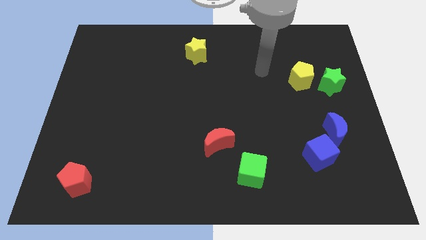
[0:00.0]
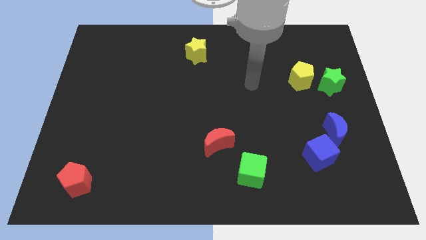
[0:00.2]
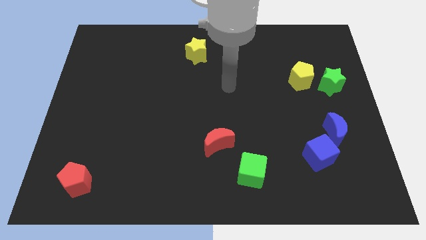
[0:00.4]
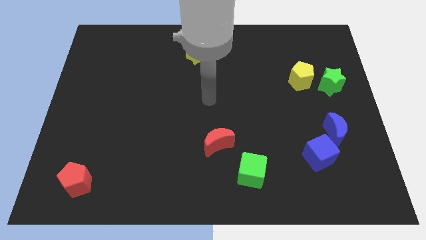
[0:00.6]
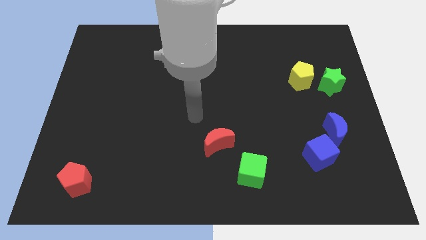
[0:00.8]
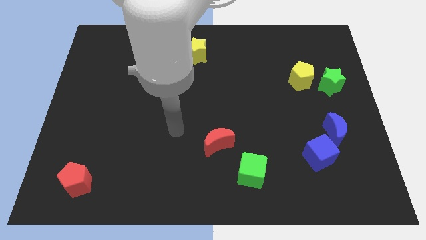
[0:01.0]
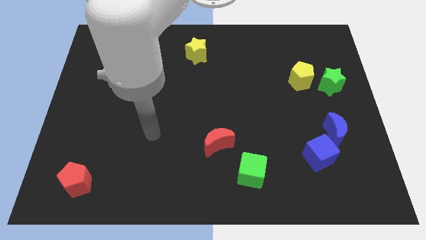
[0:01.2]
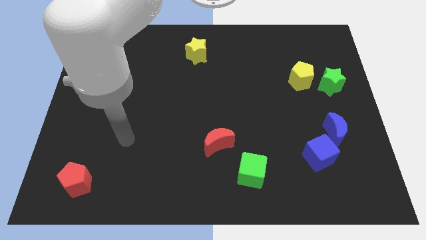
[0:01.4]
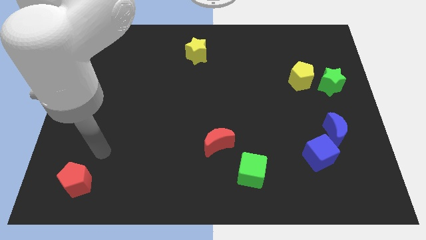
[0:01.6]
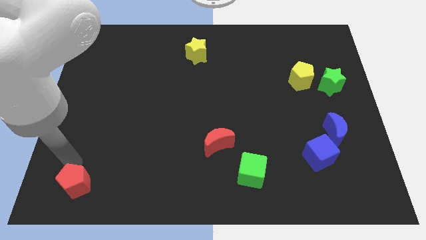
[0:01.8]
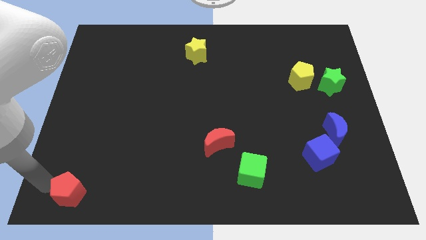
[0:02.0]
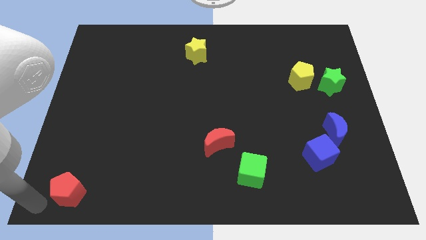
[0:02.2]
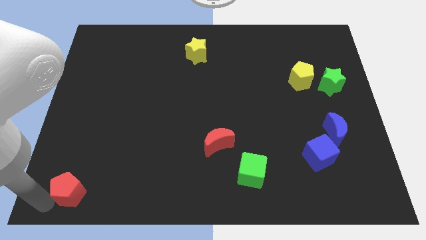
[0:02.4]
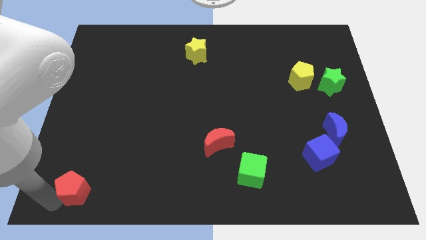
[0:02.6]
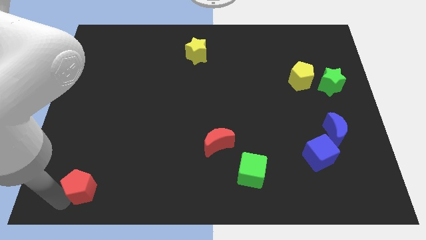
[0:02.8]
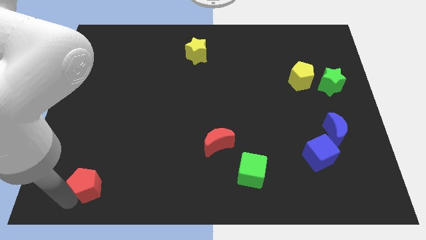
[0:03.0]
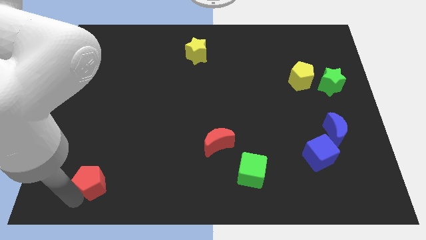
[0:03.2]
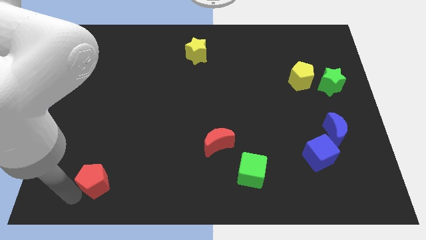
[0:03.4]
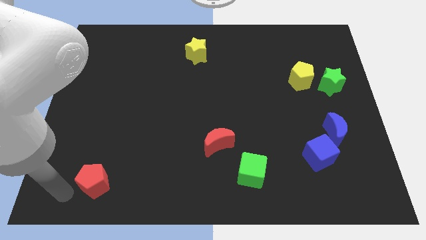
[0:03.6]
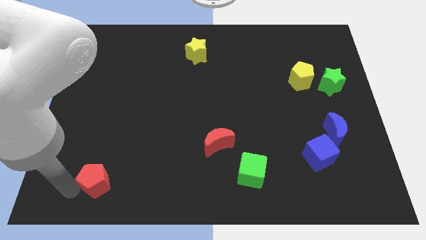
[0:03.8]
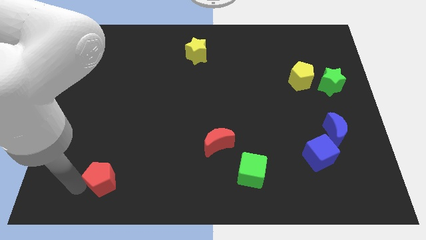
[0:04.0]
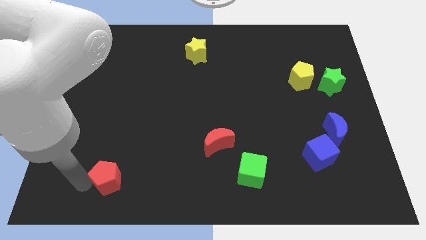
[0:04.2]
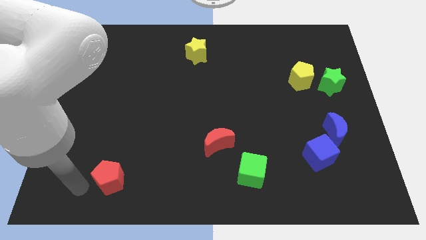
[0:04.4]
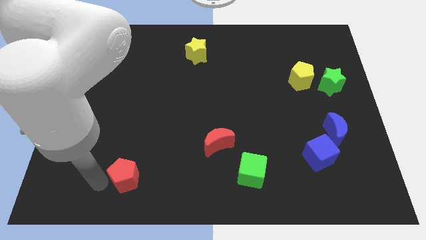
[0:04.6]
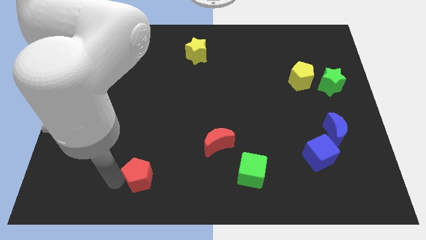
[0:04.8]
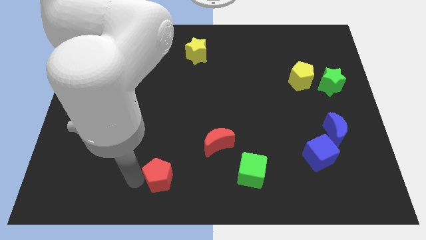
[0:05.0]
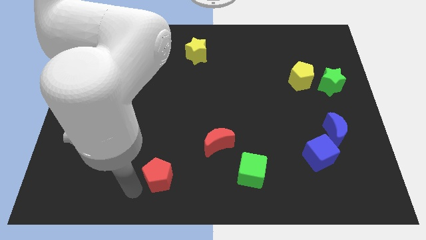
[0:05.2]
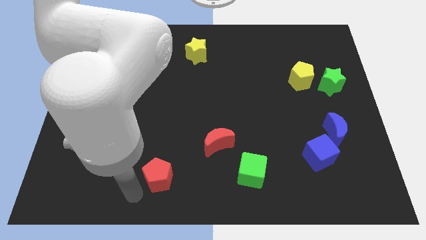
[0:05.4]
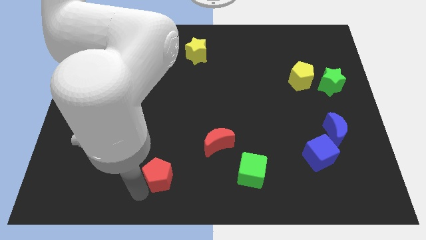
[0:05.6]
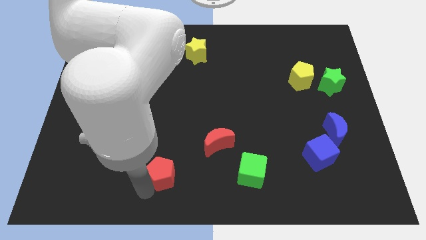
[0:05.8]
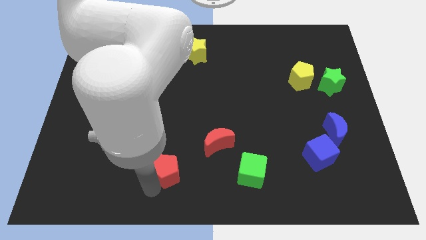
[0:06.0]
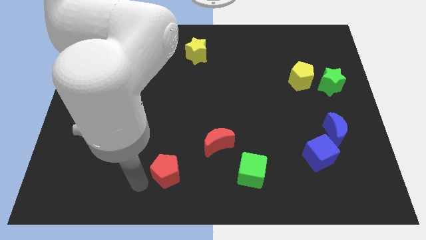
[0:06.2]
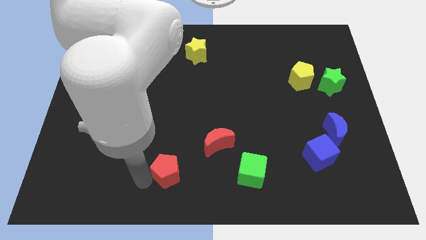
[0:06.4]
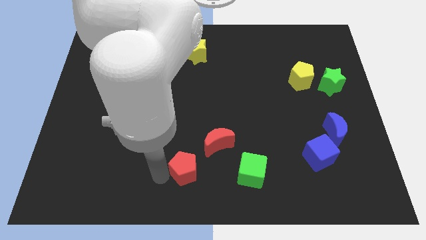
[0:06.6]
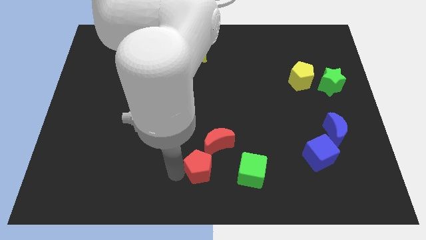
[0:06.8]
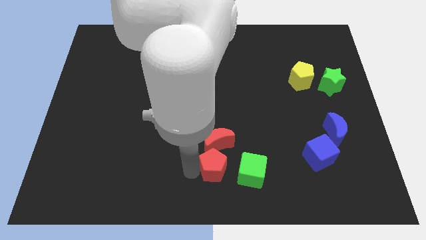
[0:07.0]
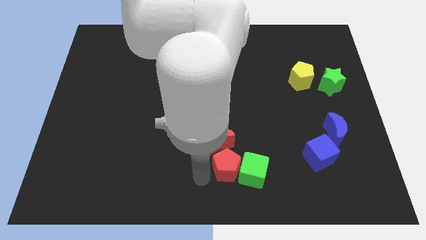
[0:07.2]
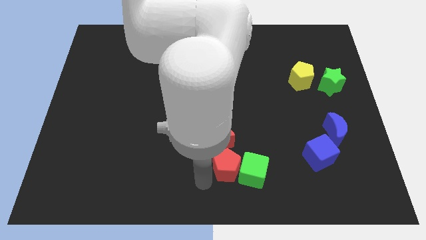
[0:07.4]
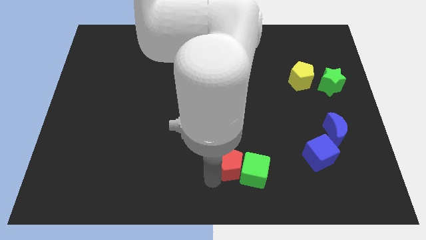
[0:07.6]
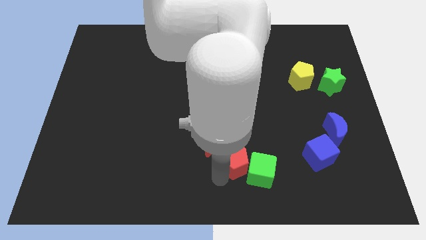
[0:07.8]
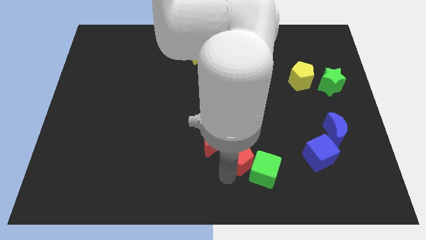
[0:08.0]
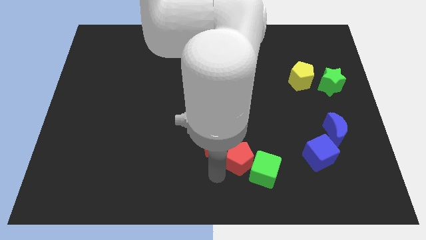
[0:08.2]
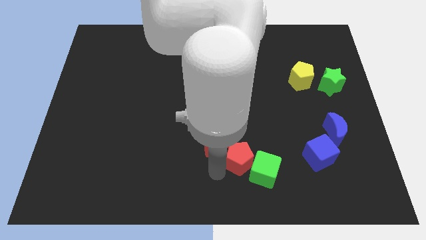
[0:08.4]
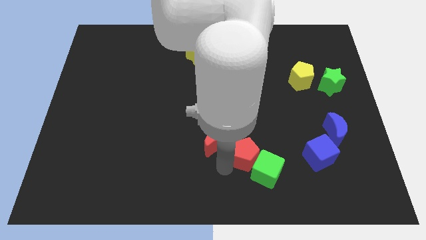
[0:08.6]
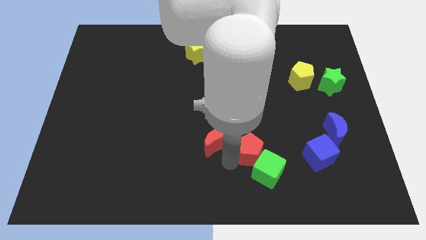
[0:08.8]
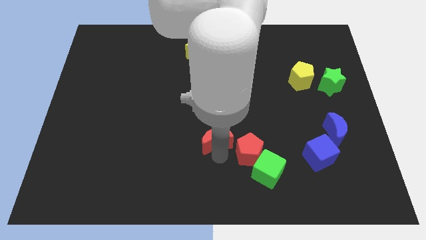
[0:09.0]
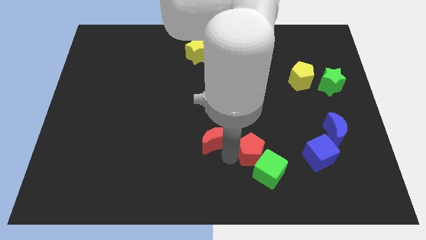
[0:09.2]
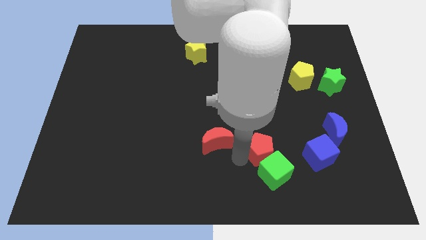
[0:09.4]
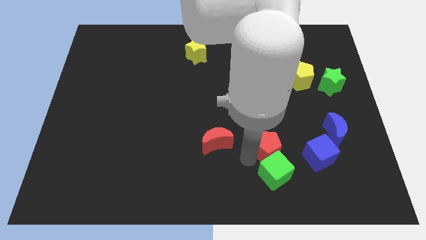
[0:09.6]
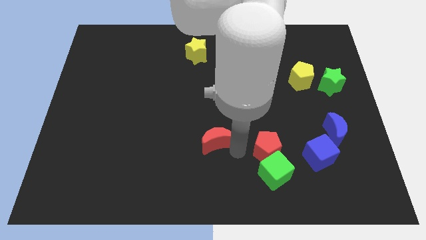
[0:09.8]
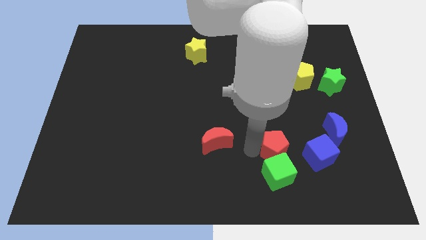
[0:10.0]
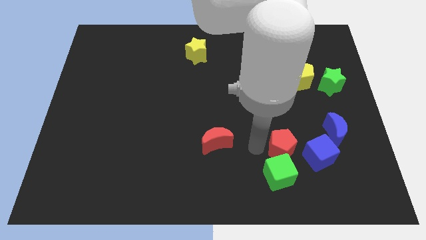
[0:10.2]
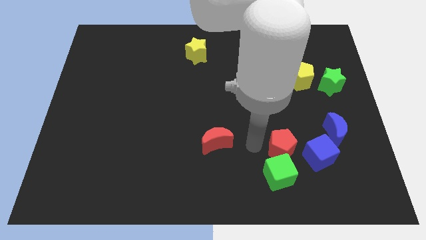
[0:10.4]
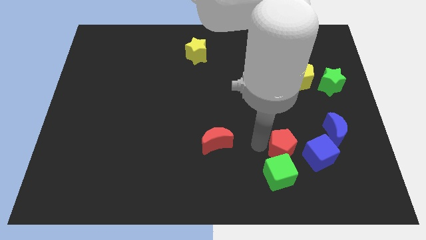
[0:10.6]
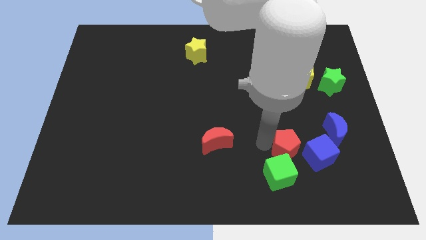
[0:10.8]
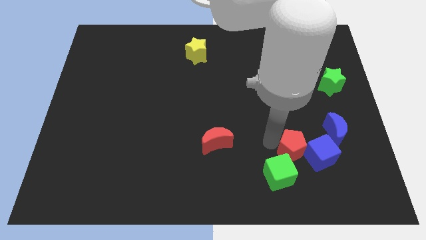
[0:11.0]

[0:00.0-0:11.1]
slide the red pentagon next to the blue cube

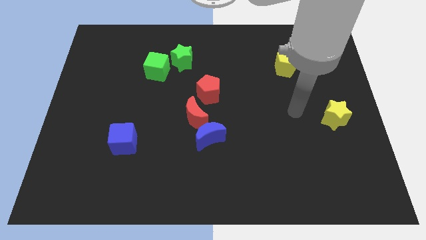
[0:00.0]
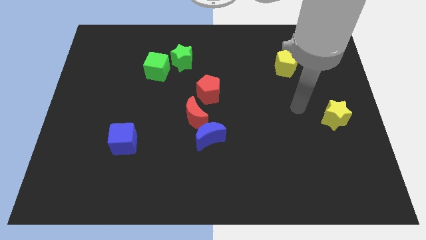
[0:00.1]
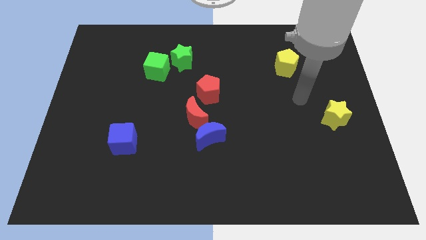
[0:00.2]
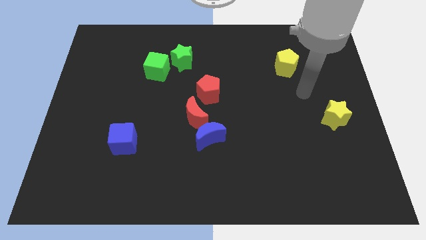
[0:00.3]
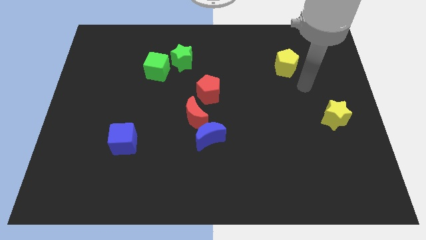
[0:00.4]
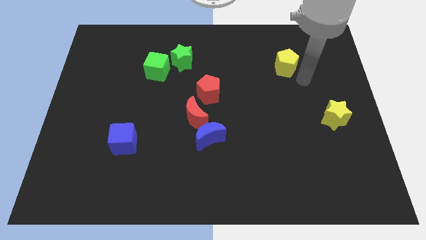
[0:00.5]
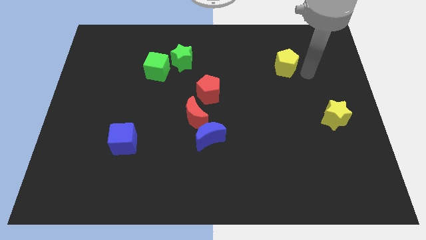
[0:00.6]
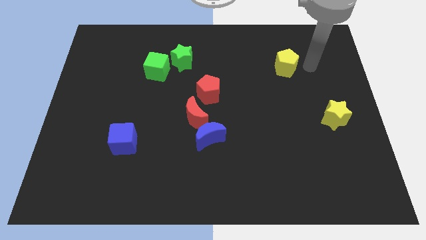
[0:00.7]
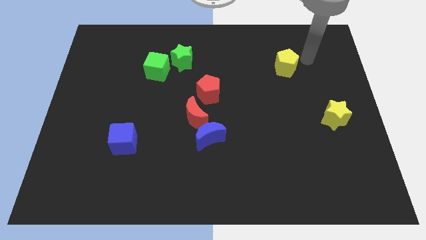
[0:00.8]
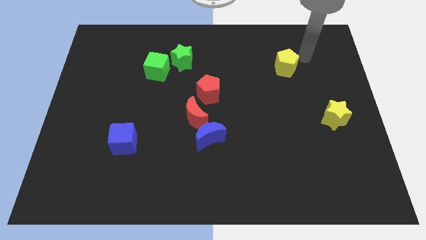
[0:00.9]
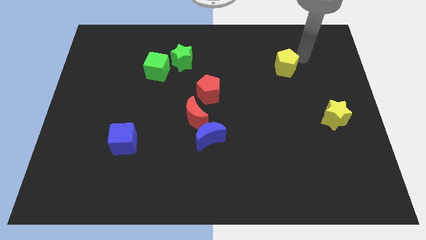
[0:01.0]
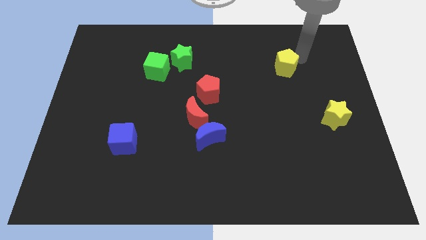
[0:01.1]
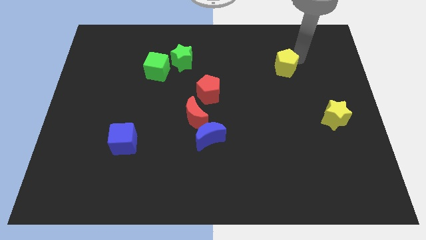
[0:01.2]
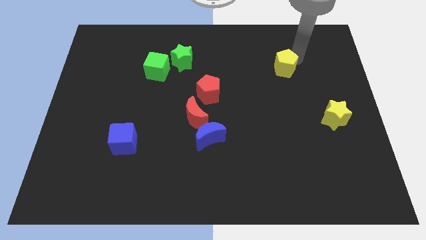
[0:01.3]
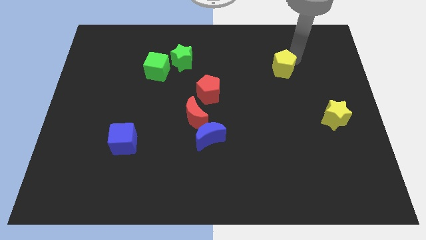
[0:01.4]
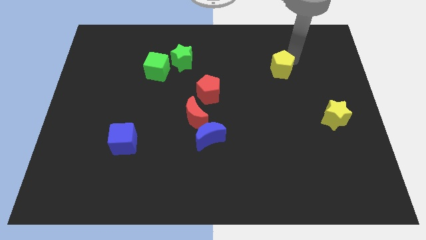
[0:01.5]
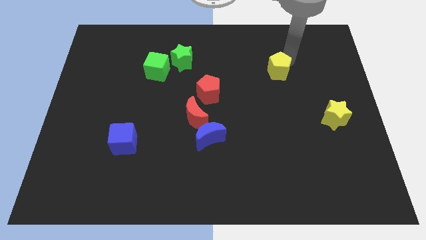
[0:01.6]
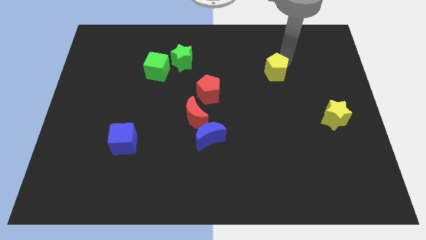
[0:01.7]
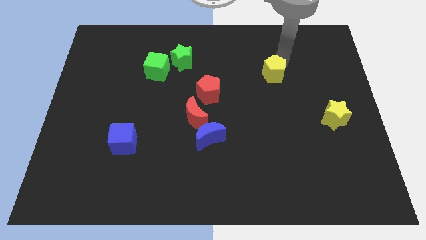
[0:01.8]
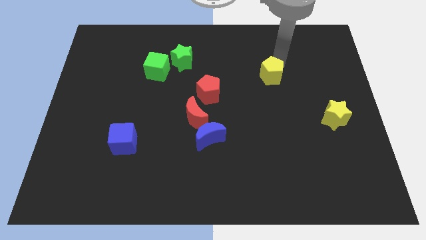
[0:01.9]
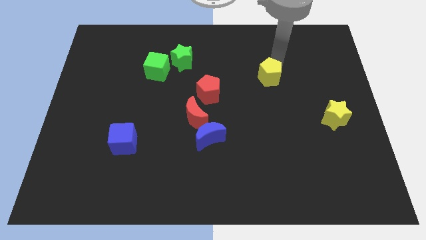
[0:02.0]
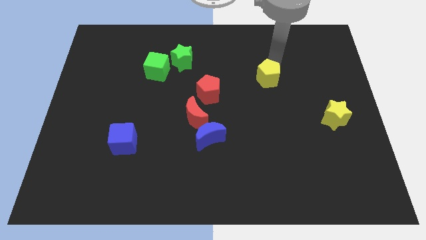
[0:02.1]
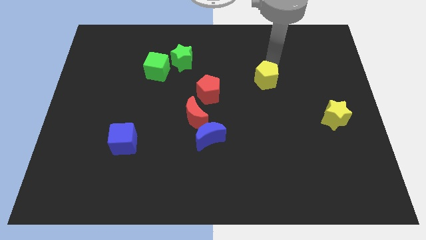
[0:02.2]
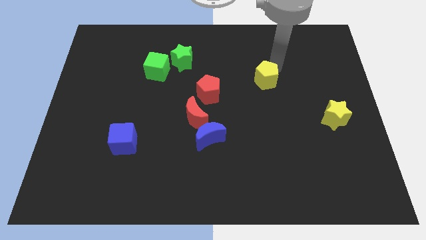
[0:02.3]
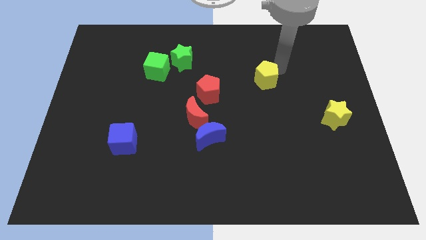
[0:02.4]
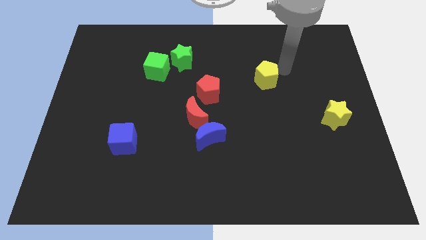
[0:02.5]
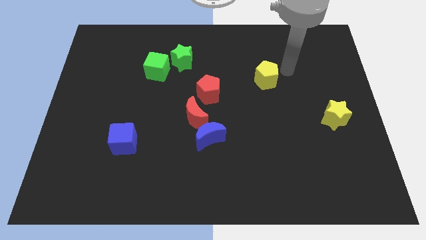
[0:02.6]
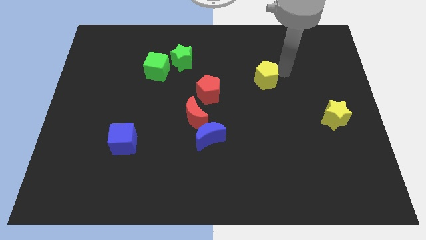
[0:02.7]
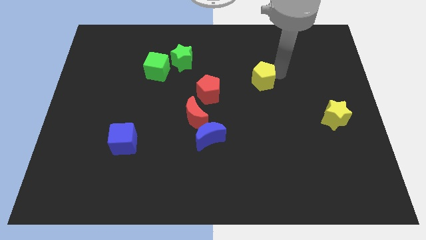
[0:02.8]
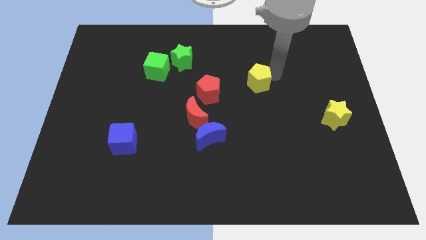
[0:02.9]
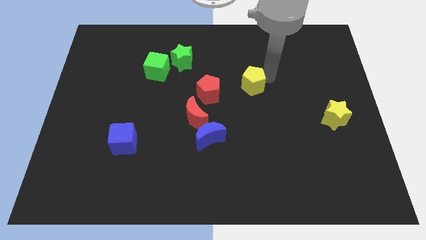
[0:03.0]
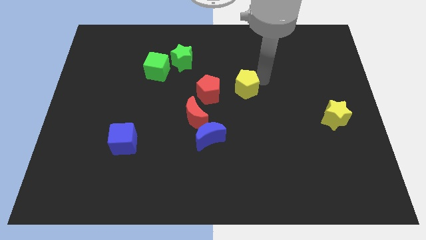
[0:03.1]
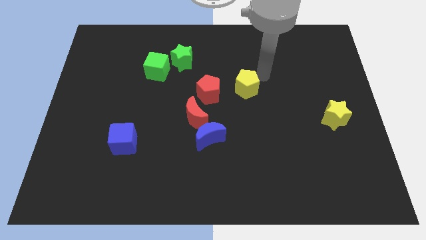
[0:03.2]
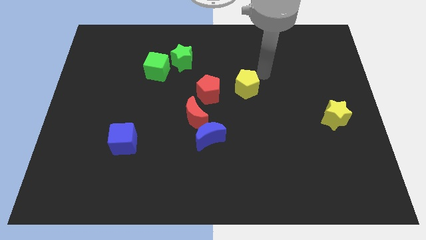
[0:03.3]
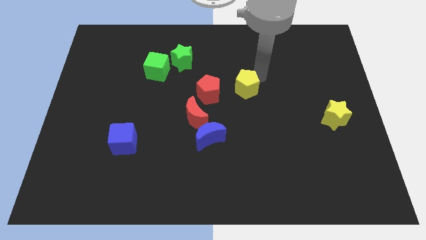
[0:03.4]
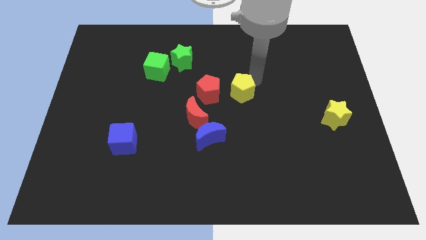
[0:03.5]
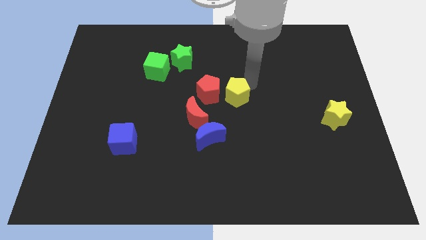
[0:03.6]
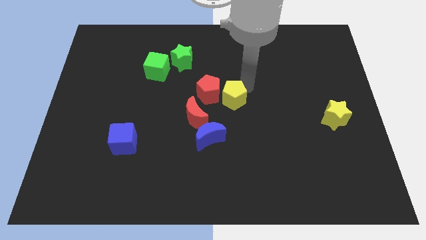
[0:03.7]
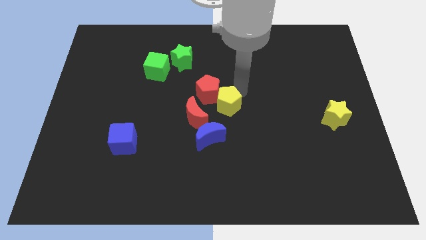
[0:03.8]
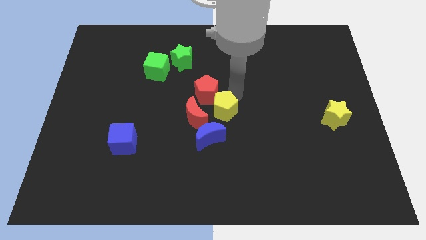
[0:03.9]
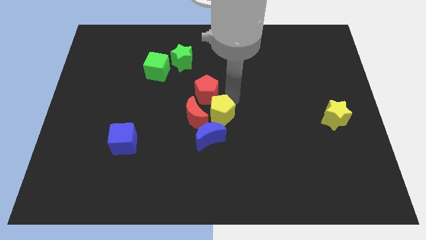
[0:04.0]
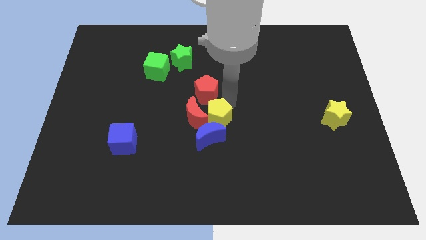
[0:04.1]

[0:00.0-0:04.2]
push the yellow pentagon close to the blue moon
